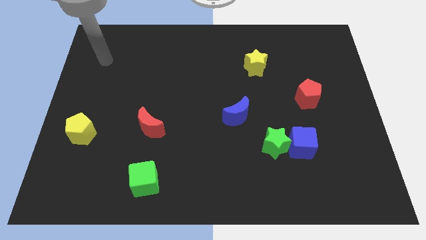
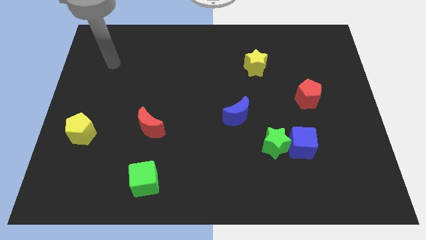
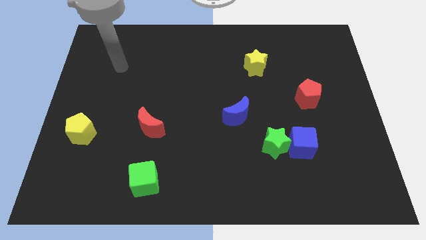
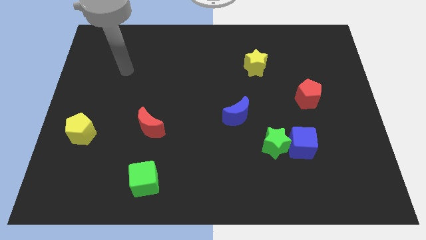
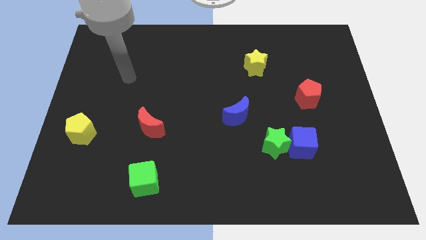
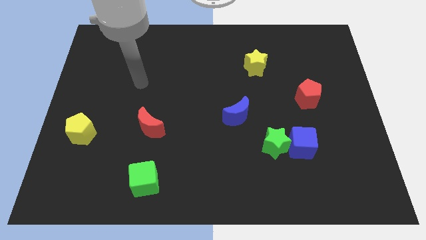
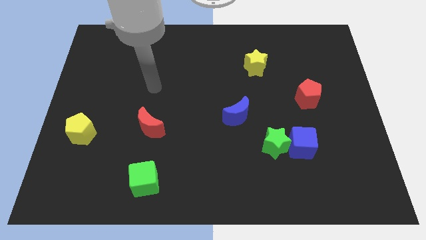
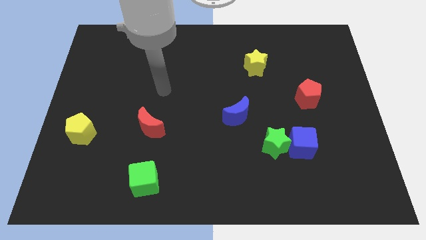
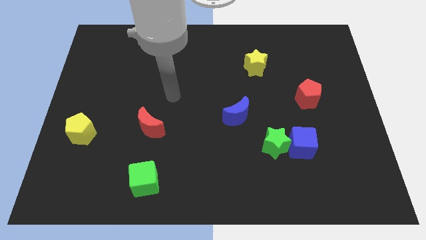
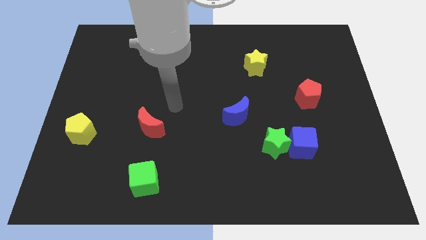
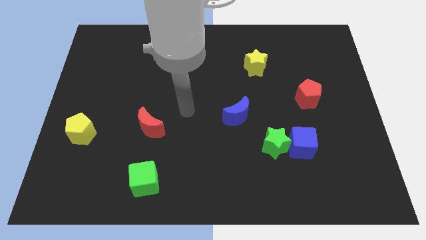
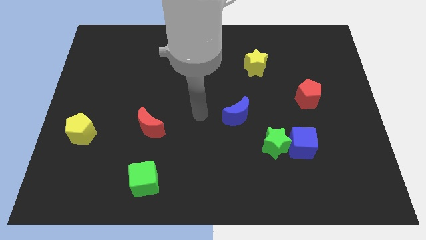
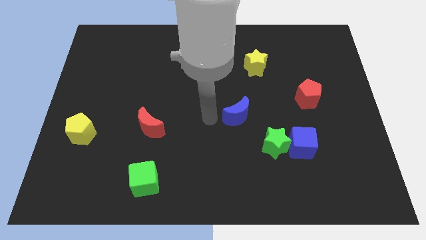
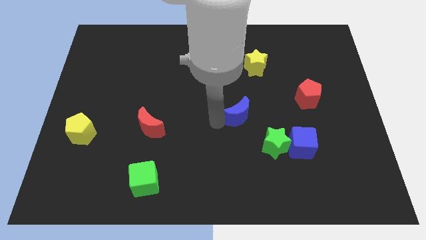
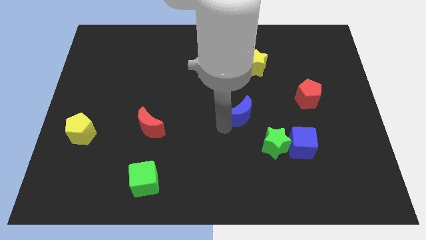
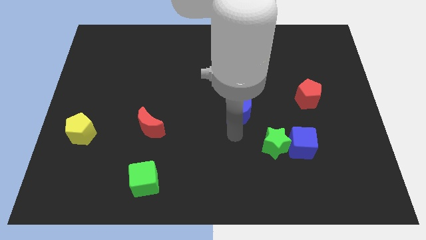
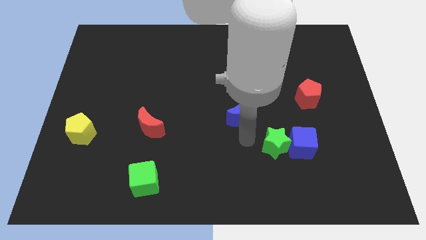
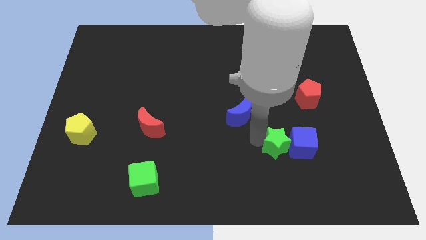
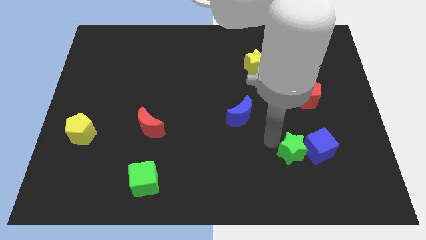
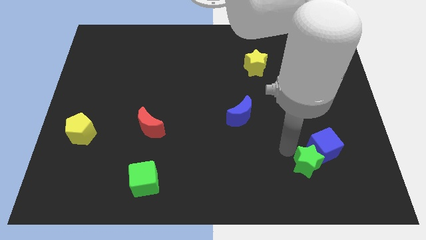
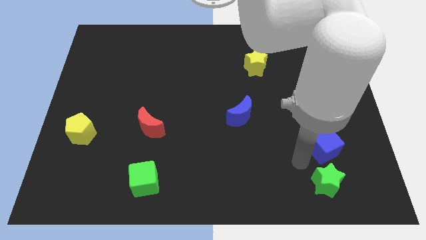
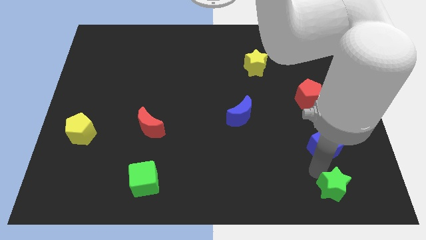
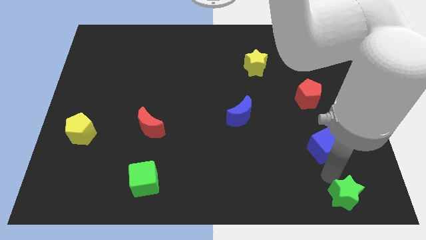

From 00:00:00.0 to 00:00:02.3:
pull the blue cube apart from the green star

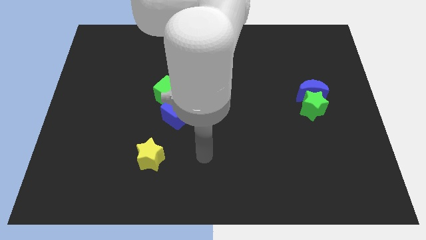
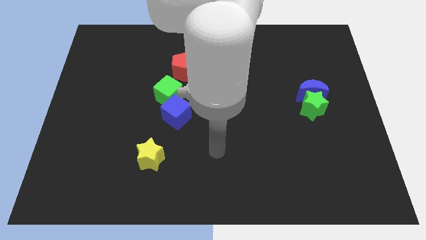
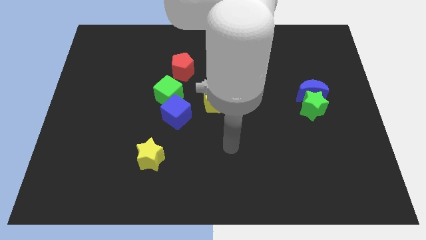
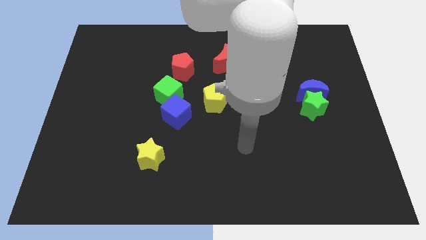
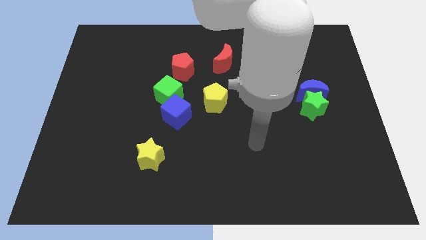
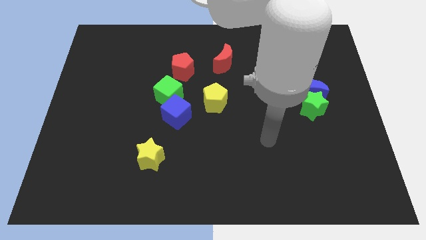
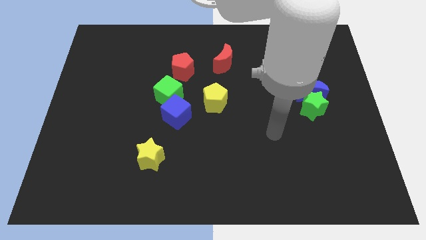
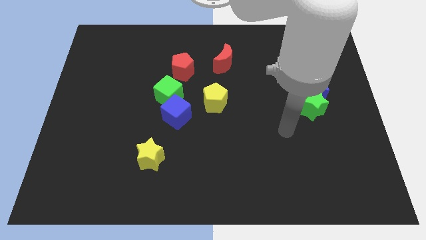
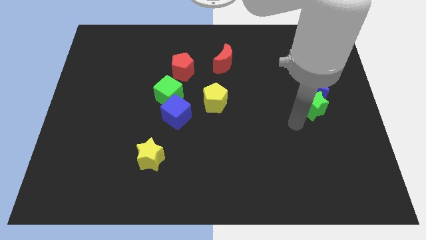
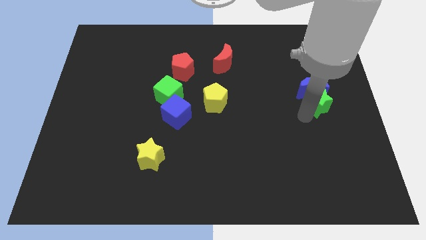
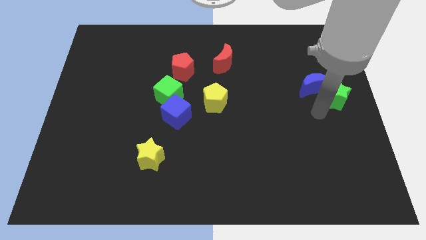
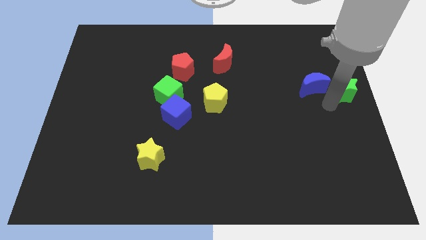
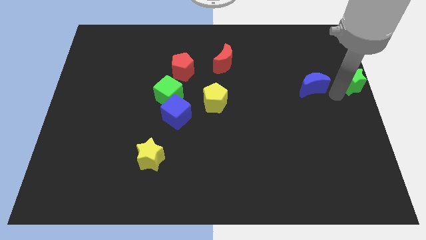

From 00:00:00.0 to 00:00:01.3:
move the blue moon away from the green star

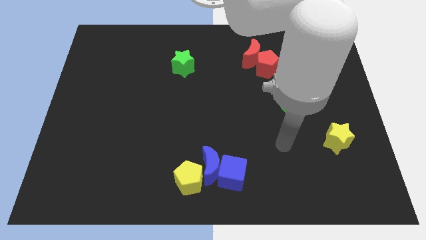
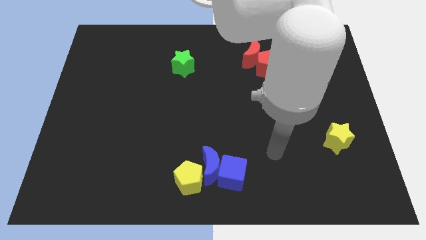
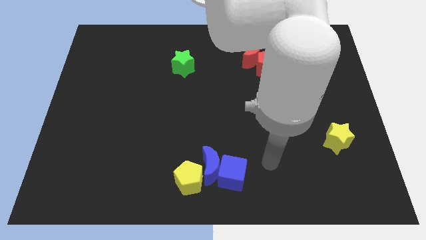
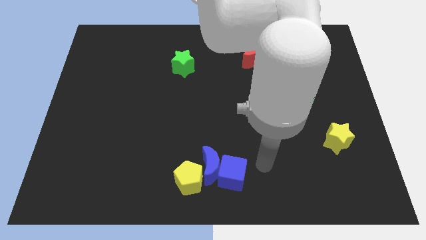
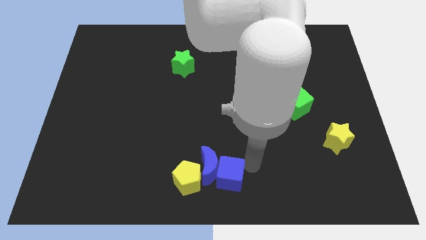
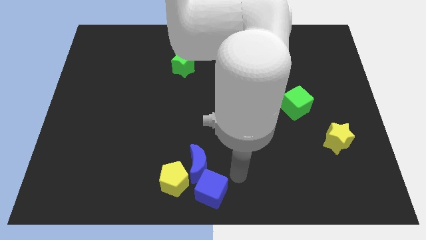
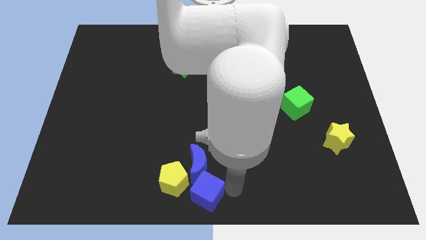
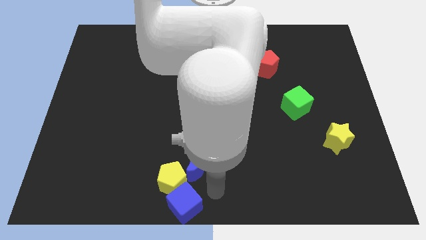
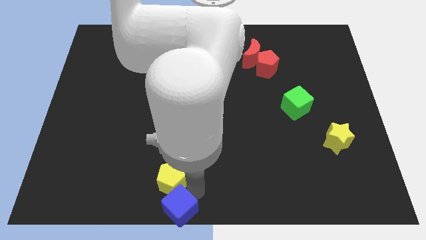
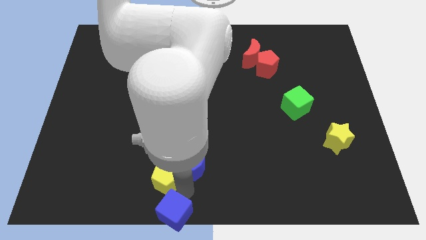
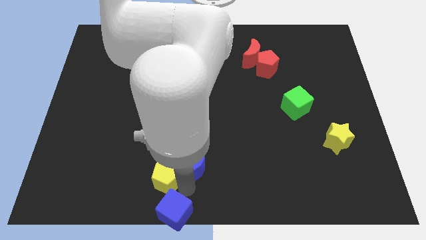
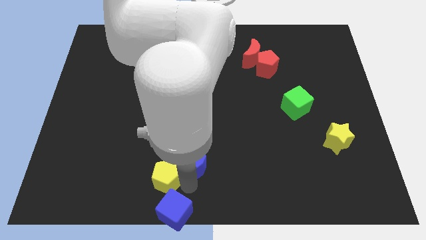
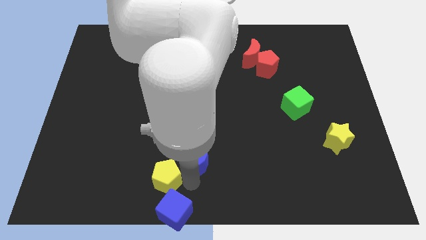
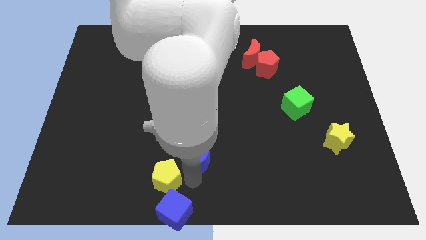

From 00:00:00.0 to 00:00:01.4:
separate the blue moon from the blue cube and yellow pentagon

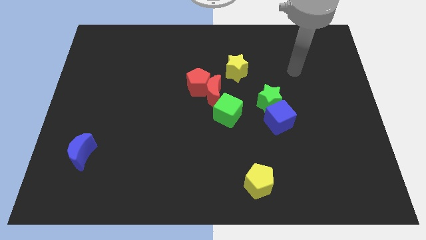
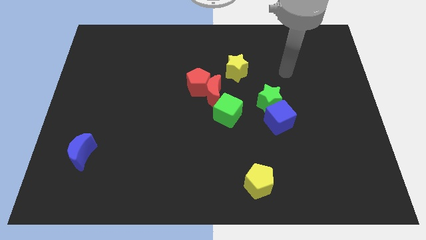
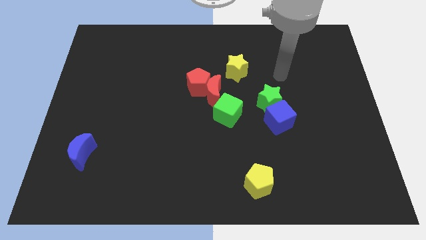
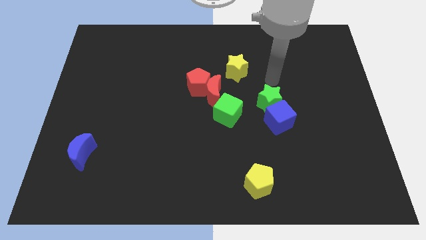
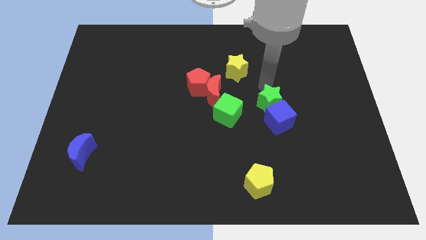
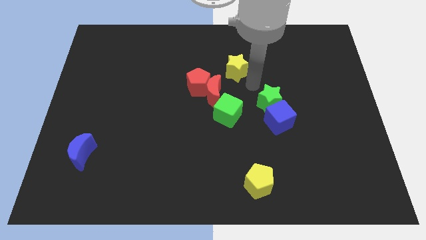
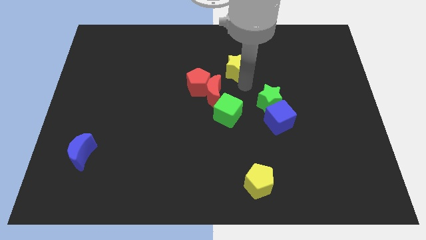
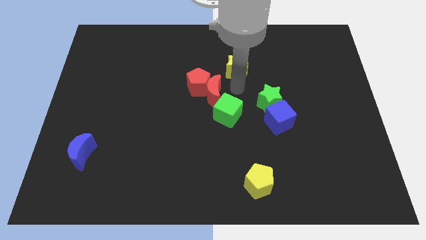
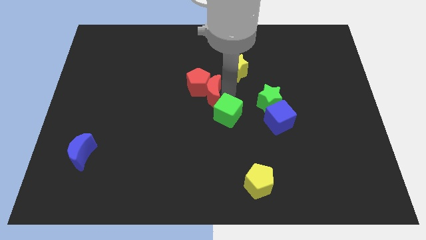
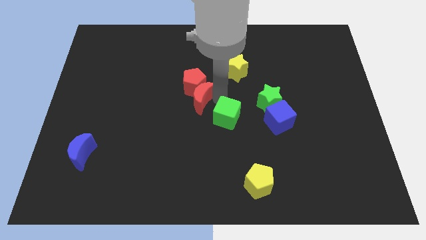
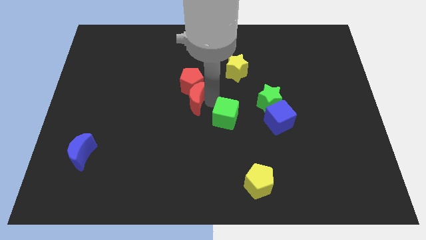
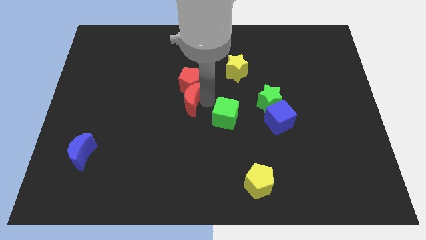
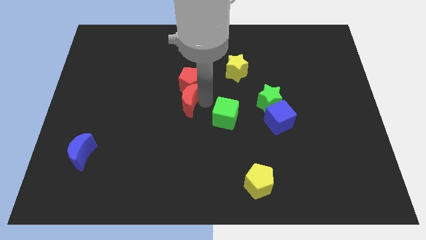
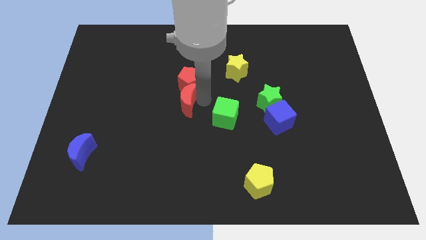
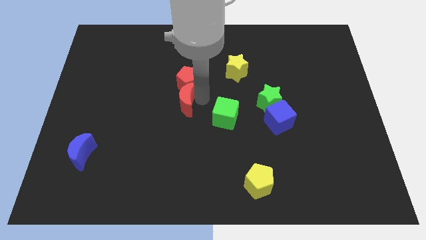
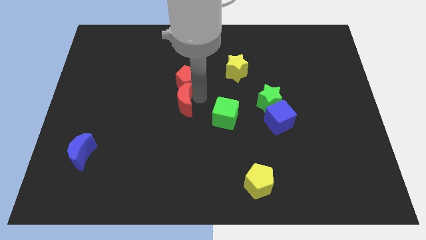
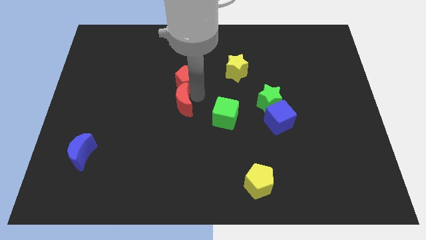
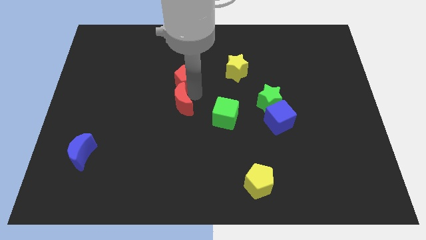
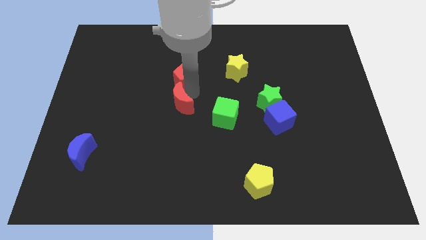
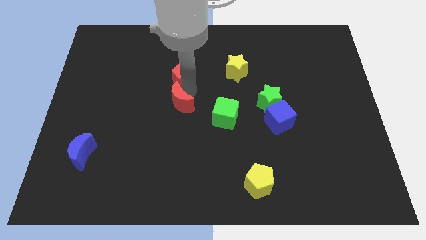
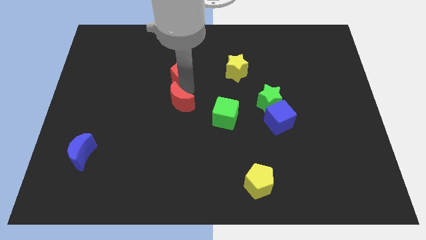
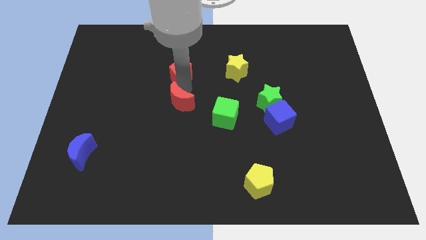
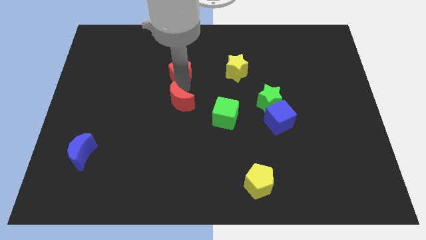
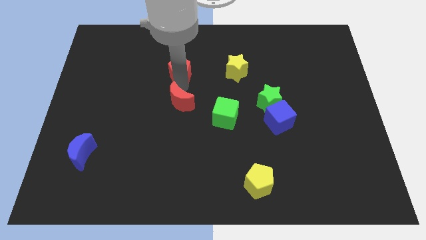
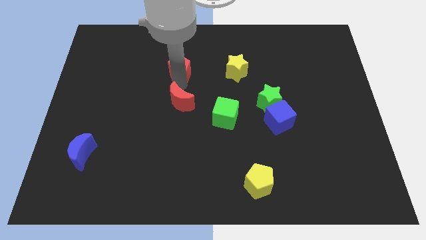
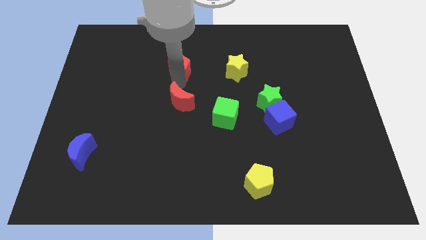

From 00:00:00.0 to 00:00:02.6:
separate the red pentagon from the red moon

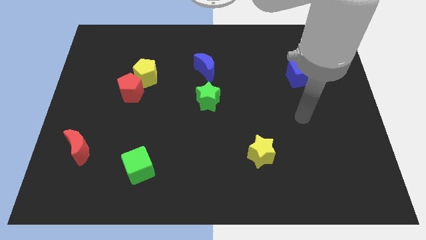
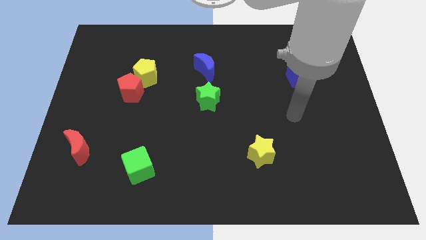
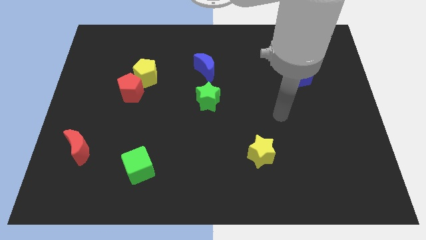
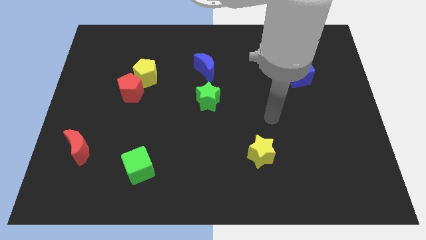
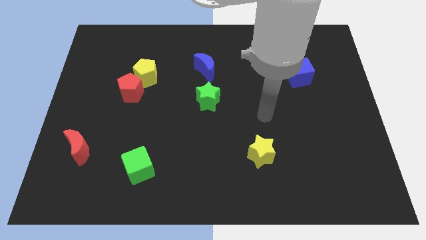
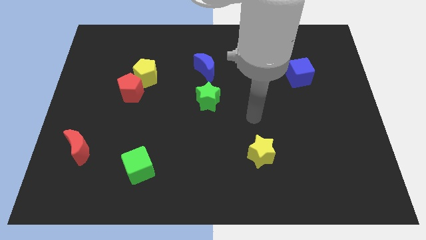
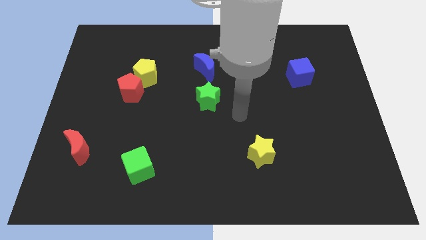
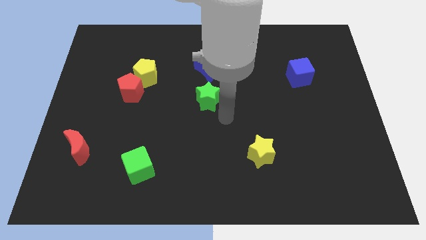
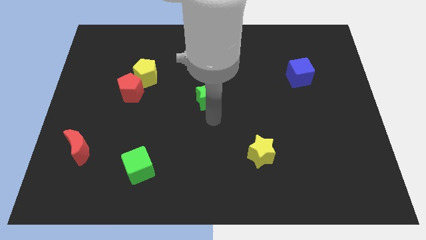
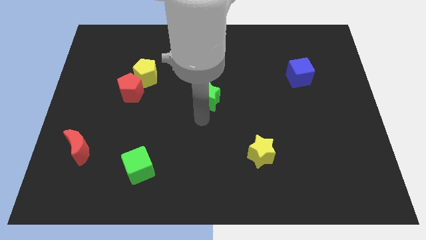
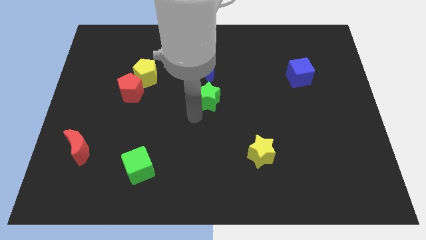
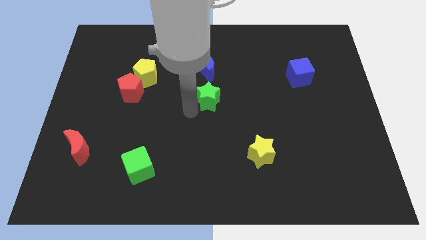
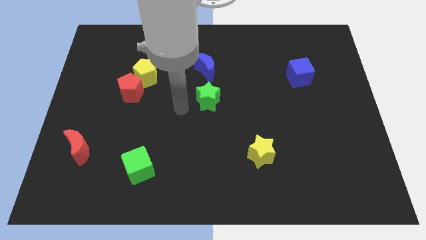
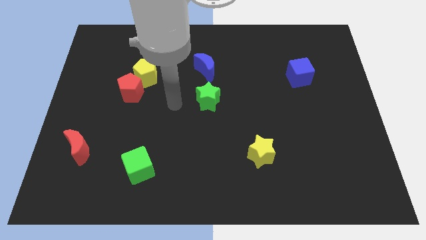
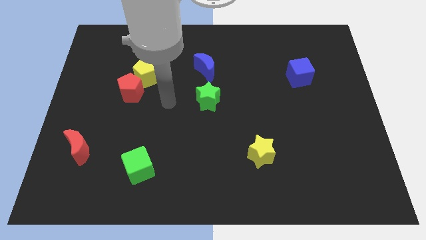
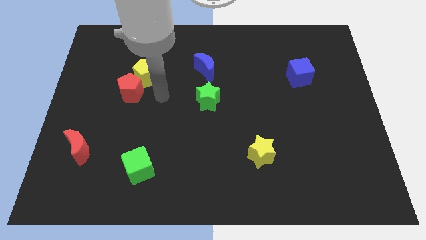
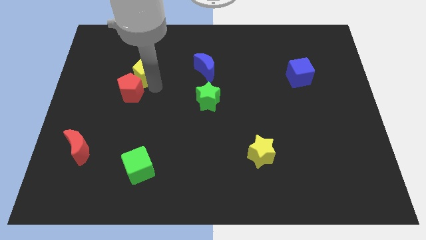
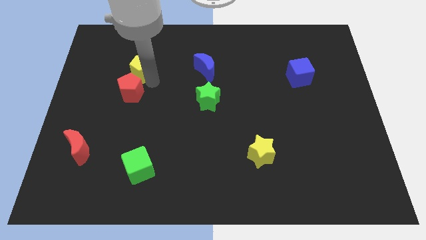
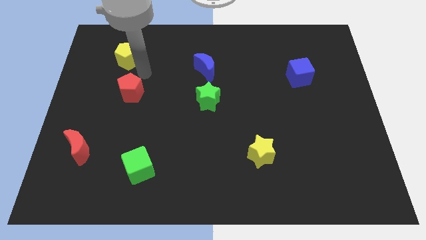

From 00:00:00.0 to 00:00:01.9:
separate the red pentagon from the yellow pentagon
